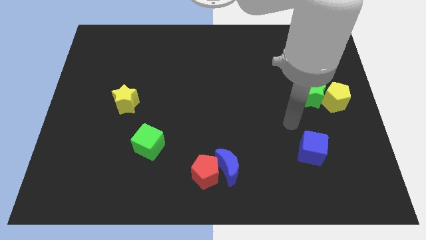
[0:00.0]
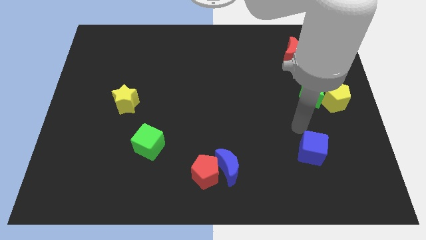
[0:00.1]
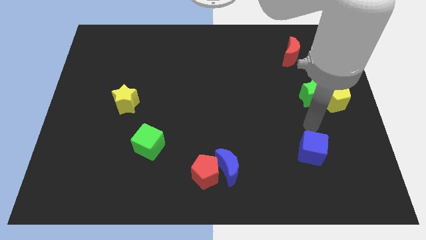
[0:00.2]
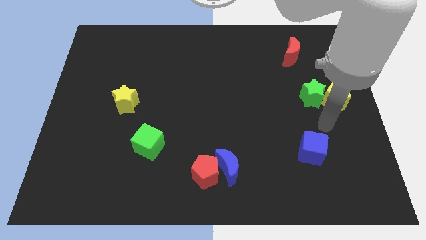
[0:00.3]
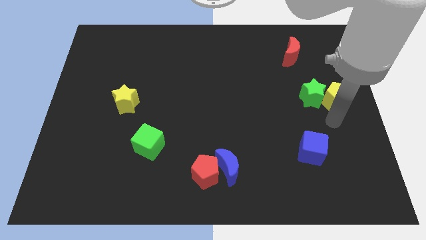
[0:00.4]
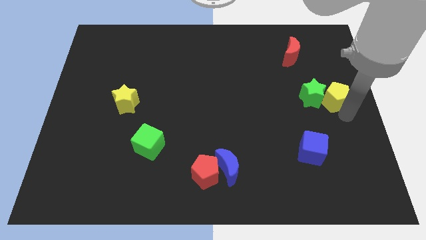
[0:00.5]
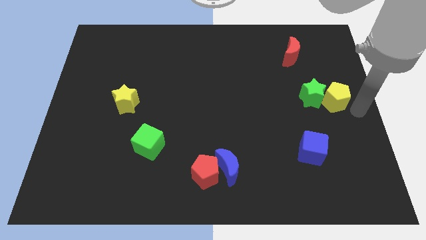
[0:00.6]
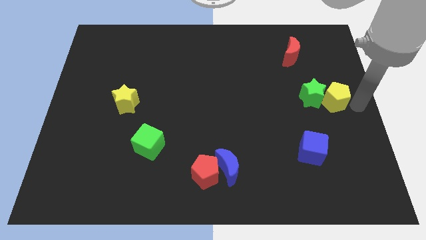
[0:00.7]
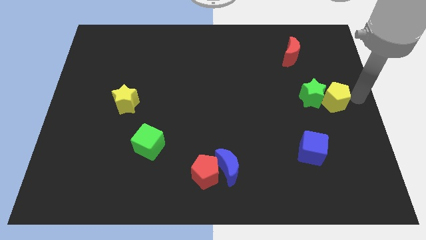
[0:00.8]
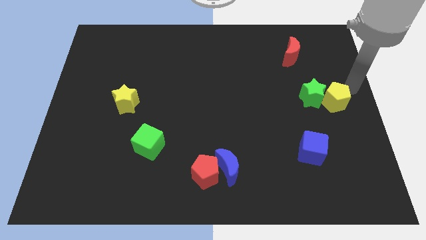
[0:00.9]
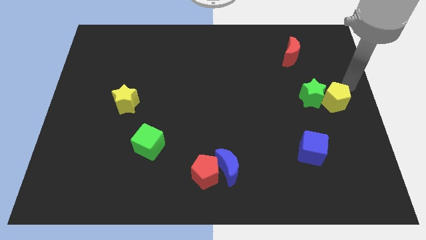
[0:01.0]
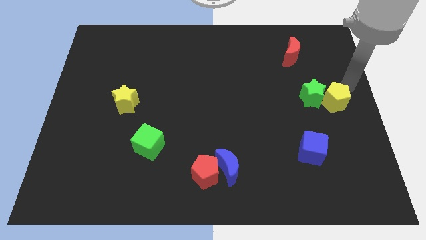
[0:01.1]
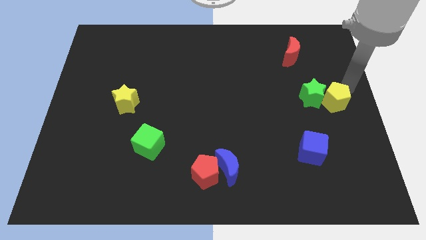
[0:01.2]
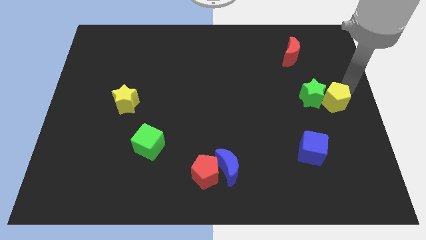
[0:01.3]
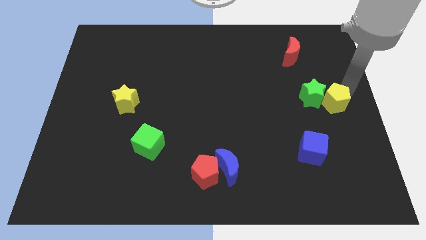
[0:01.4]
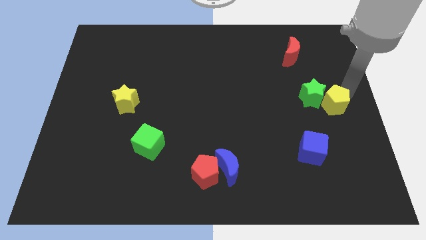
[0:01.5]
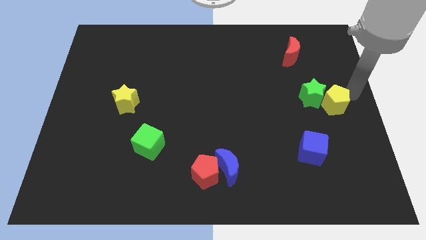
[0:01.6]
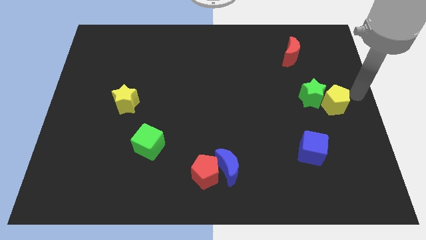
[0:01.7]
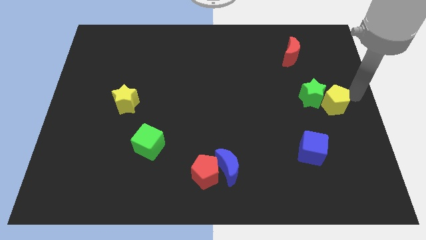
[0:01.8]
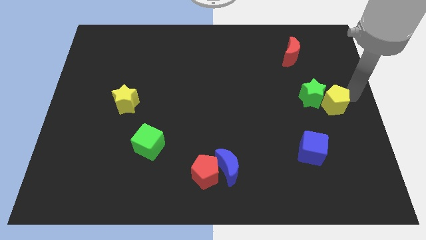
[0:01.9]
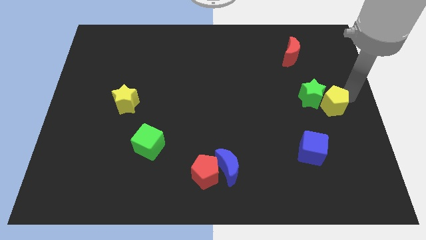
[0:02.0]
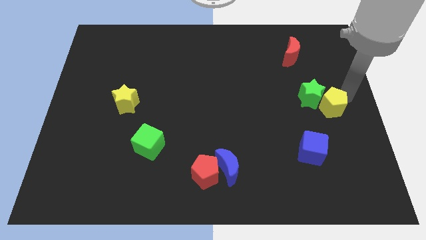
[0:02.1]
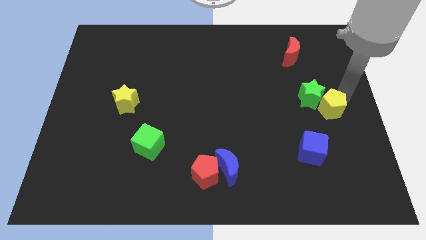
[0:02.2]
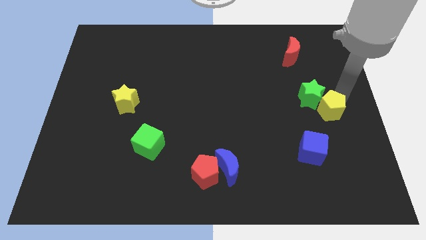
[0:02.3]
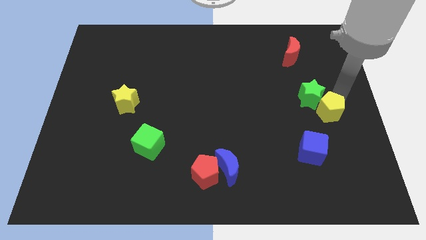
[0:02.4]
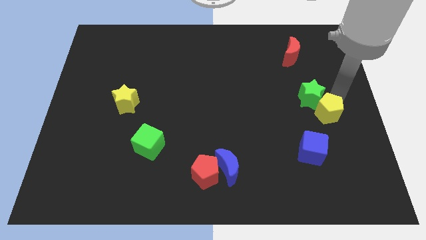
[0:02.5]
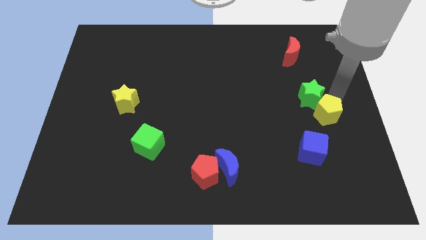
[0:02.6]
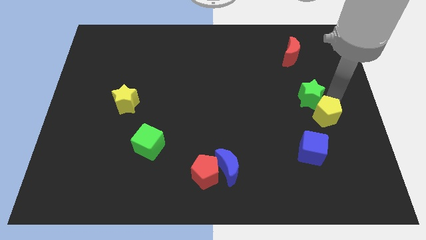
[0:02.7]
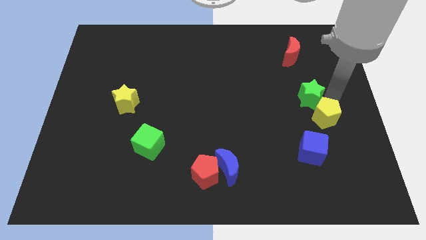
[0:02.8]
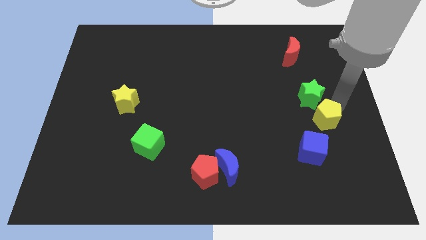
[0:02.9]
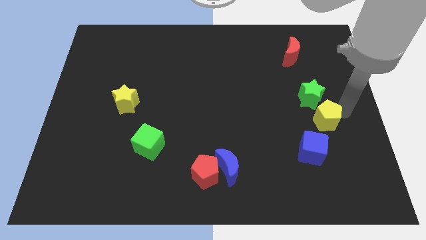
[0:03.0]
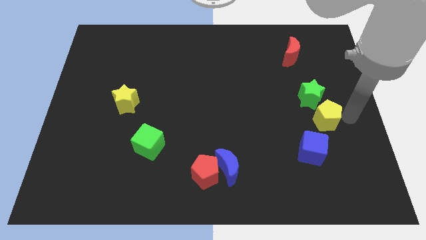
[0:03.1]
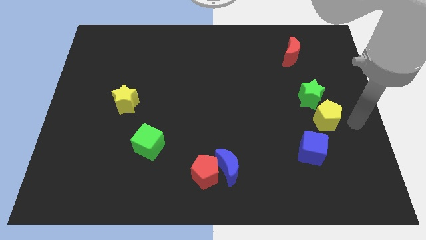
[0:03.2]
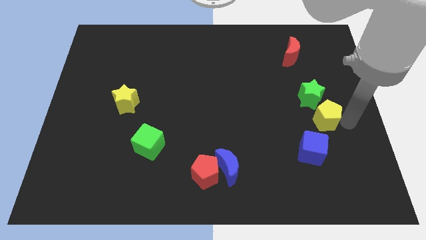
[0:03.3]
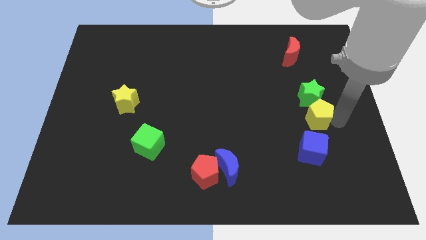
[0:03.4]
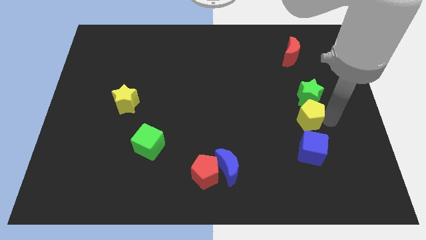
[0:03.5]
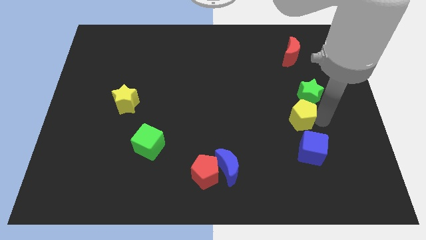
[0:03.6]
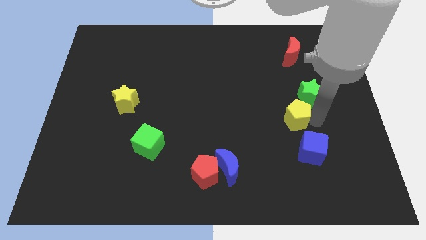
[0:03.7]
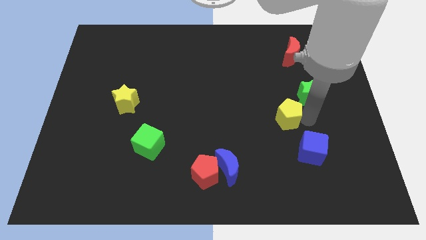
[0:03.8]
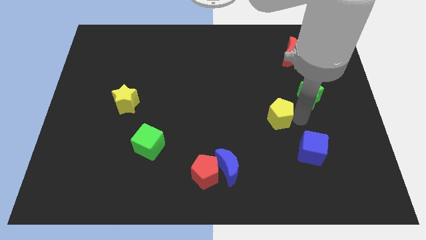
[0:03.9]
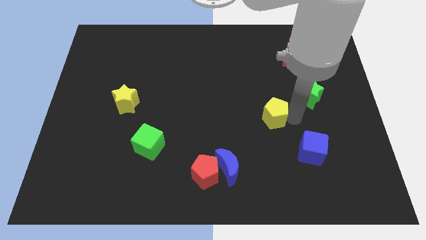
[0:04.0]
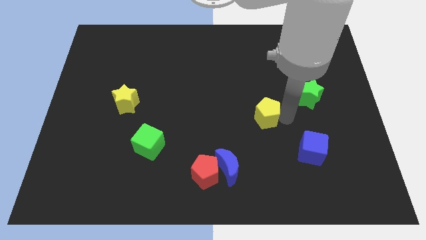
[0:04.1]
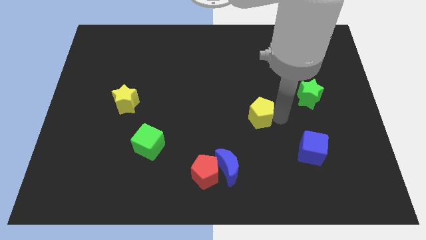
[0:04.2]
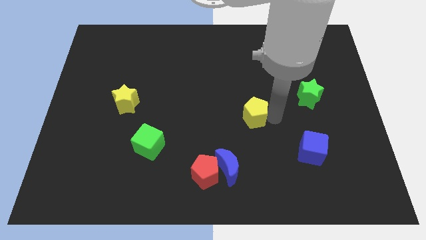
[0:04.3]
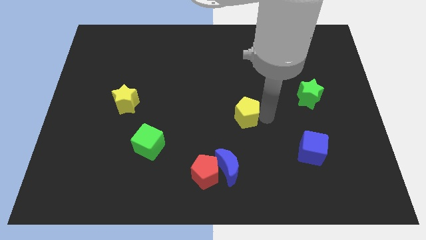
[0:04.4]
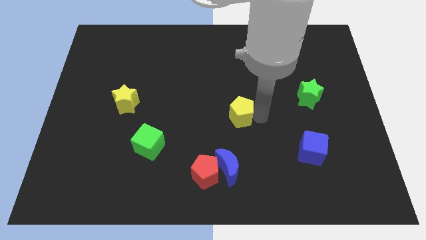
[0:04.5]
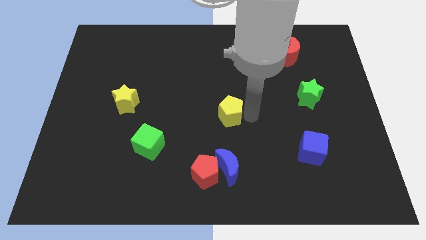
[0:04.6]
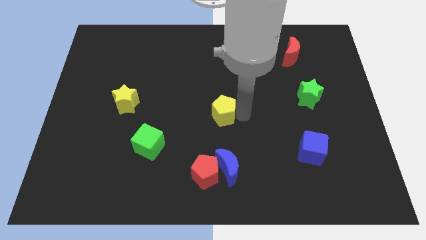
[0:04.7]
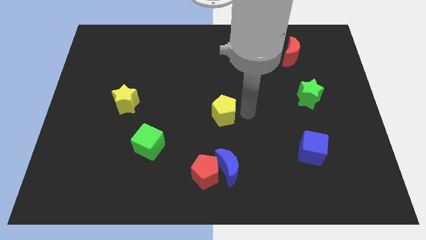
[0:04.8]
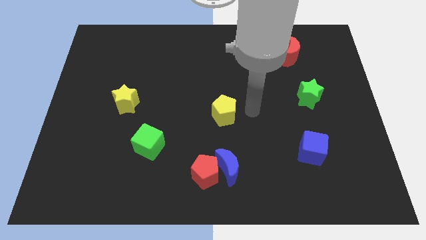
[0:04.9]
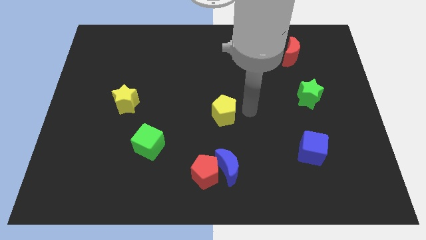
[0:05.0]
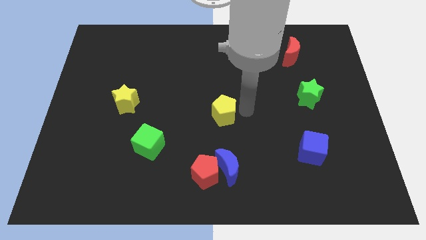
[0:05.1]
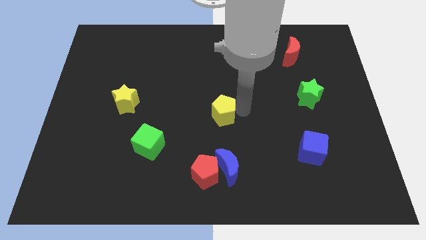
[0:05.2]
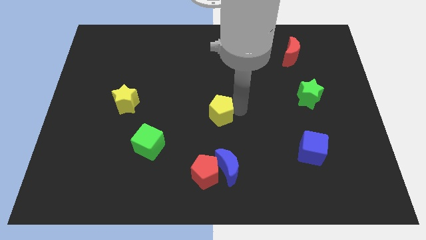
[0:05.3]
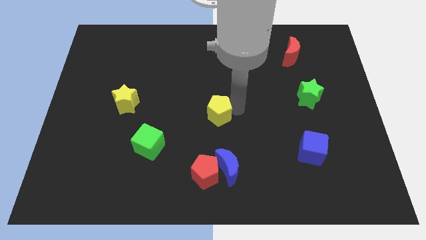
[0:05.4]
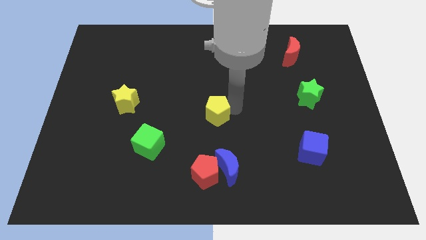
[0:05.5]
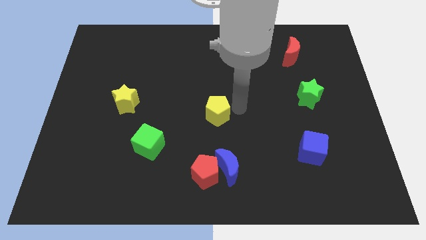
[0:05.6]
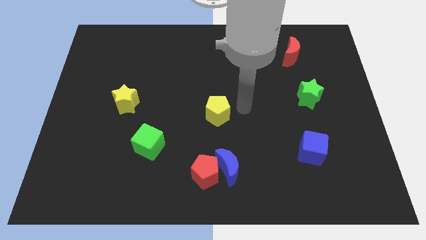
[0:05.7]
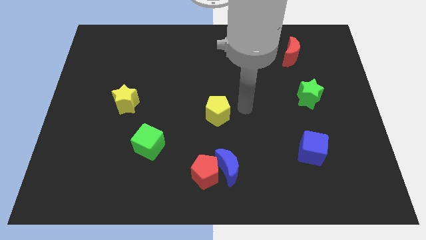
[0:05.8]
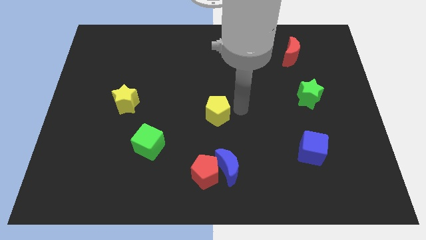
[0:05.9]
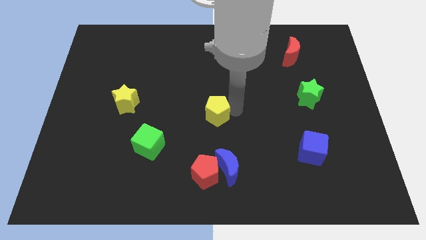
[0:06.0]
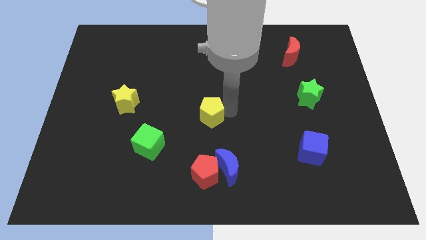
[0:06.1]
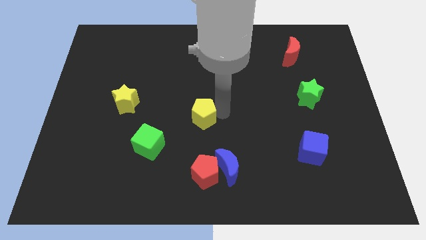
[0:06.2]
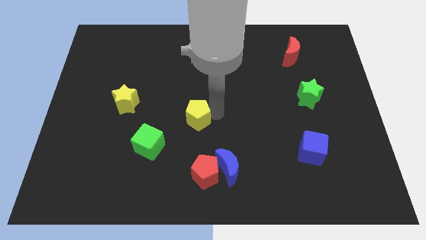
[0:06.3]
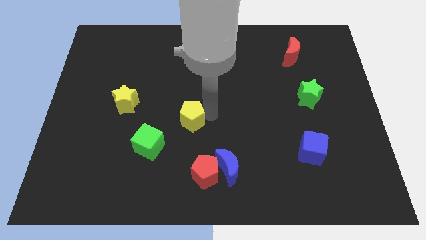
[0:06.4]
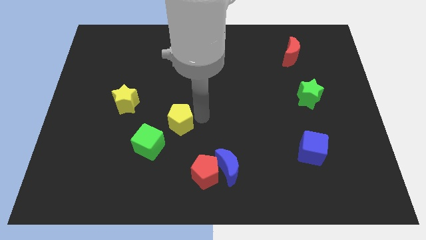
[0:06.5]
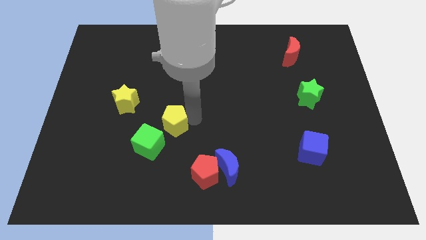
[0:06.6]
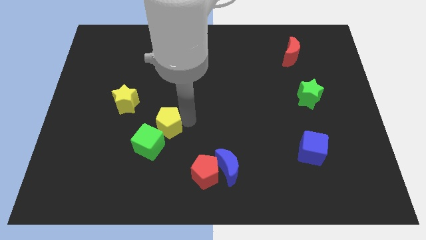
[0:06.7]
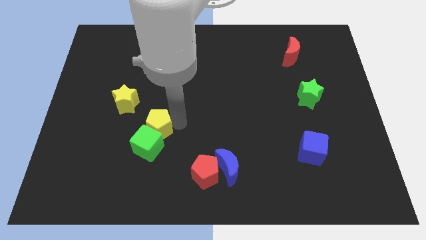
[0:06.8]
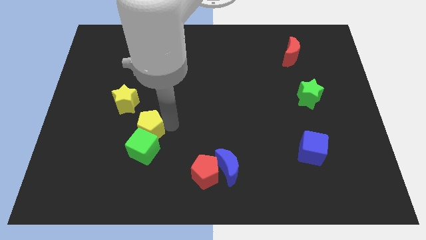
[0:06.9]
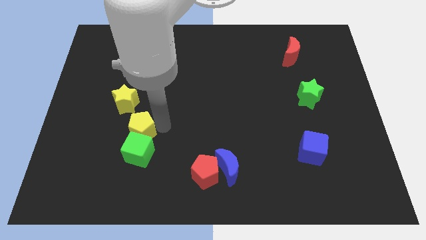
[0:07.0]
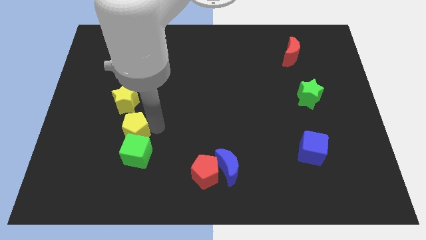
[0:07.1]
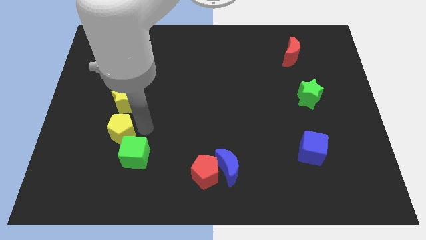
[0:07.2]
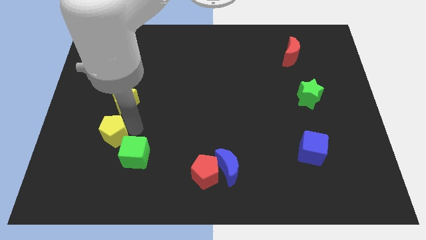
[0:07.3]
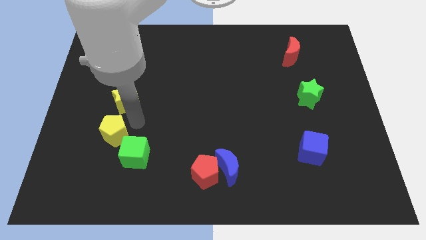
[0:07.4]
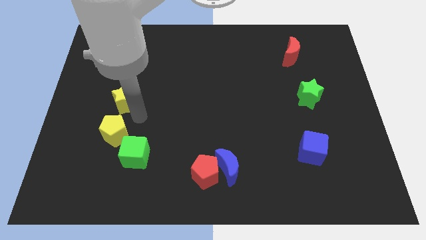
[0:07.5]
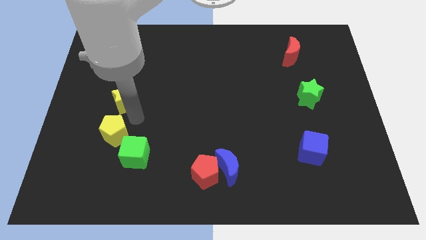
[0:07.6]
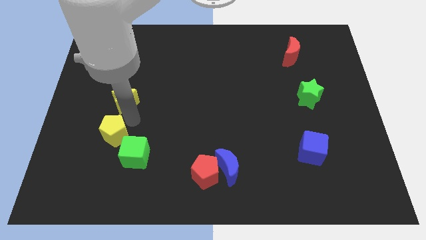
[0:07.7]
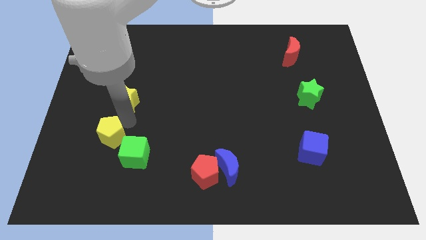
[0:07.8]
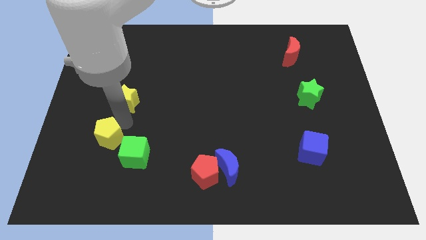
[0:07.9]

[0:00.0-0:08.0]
move the yellow pentagon to the left side of the green cube
